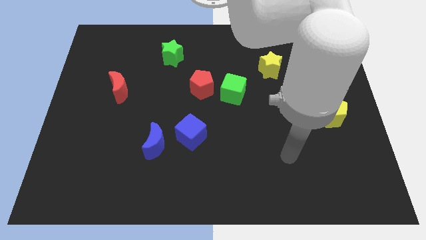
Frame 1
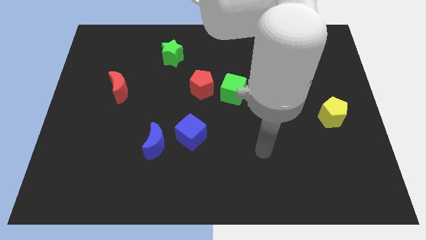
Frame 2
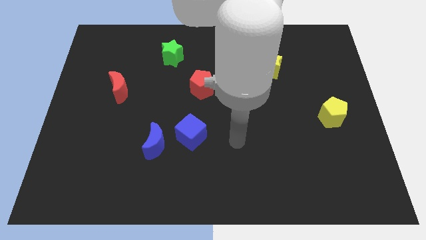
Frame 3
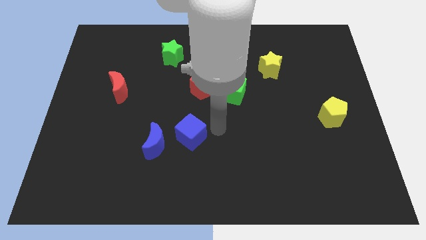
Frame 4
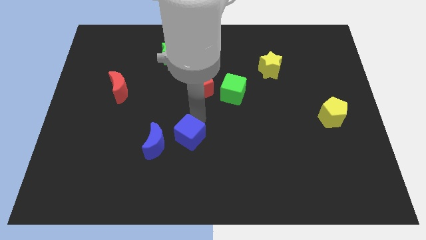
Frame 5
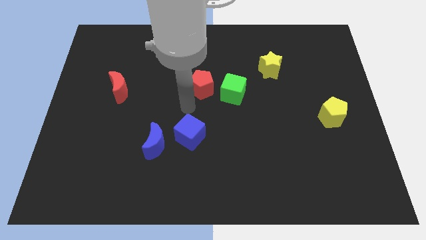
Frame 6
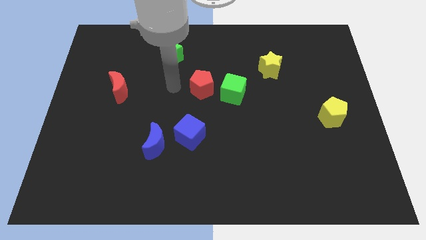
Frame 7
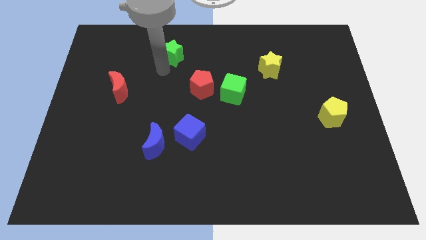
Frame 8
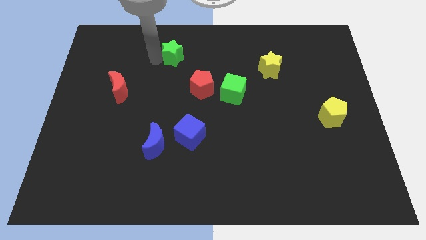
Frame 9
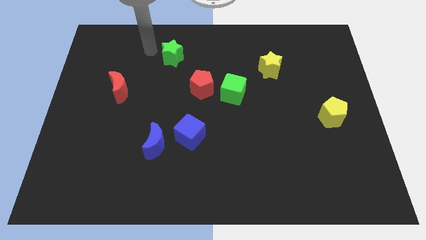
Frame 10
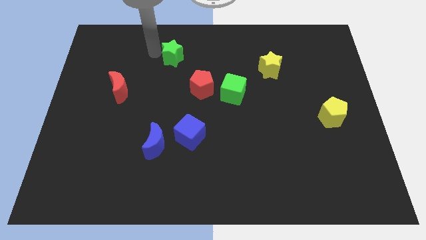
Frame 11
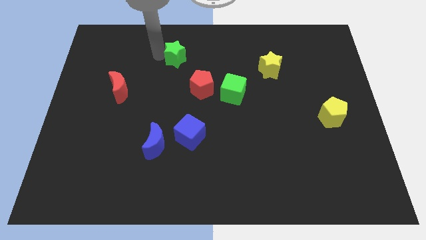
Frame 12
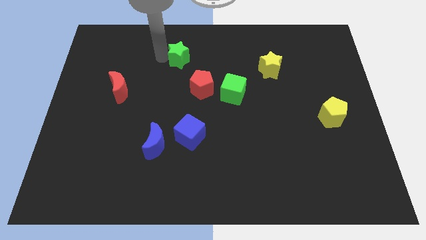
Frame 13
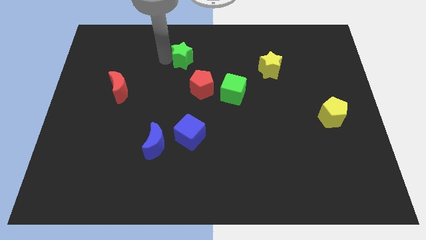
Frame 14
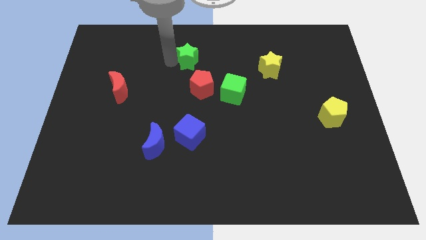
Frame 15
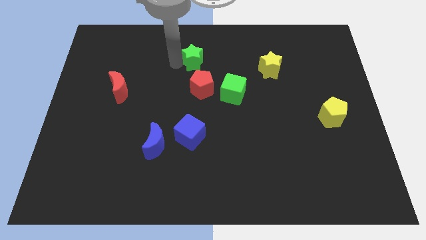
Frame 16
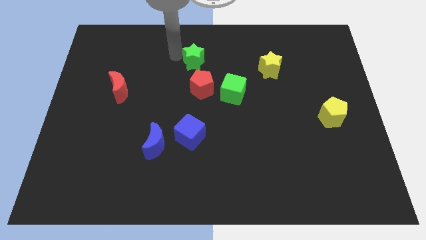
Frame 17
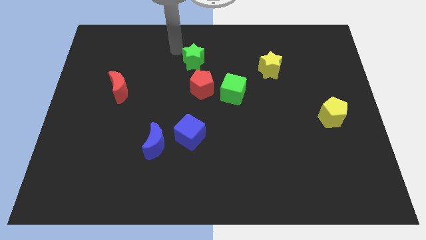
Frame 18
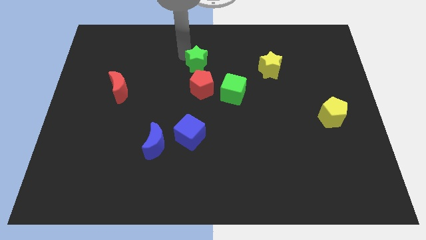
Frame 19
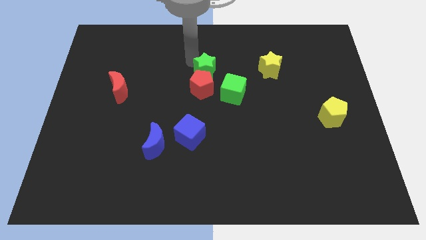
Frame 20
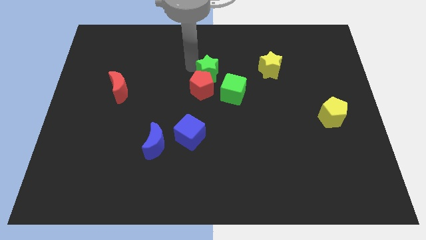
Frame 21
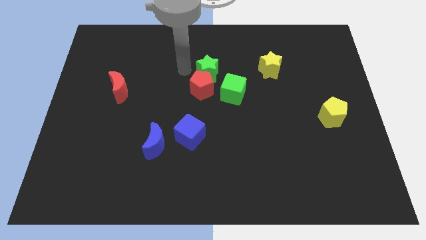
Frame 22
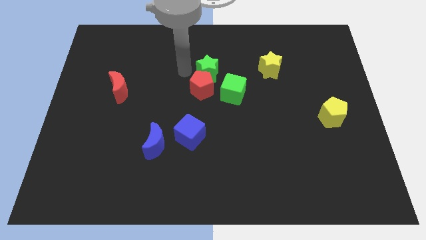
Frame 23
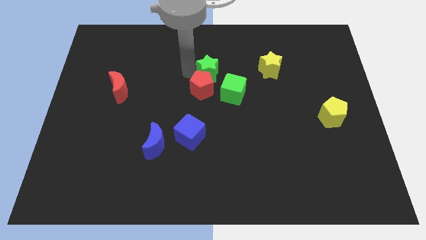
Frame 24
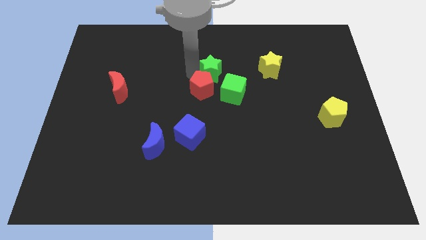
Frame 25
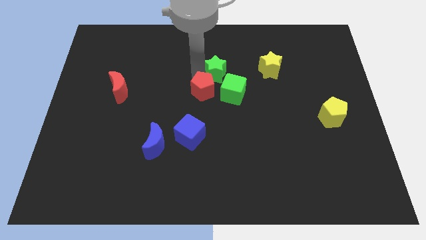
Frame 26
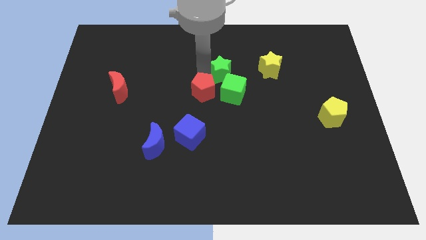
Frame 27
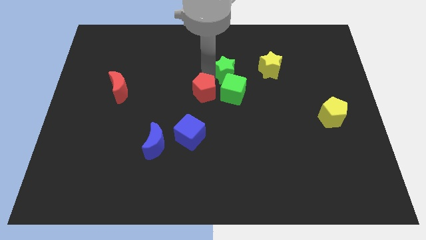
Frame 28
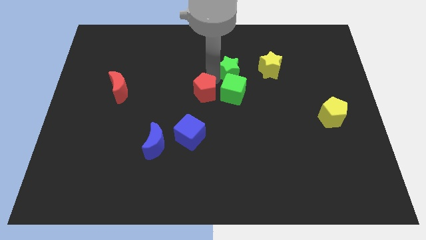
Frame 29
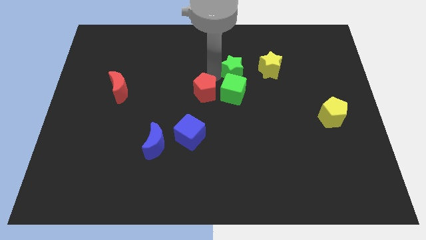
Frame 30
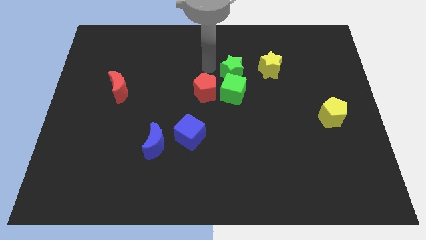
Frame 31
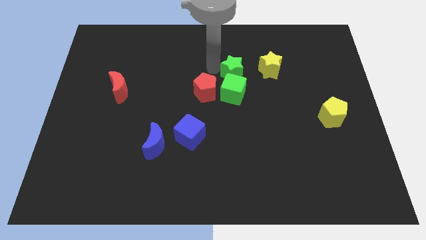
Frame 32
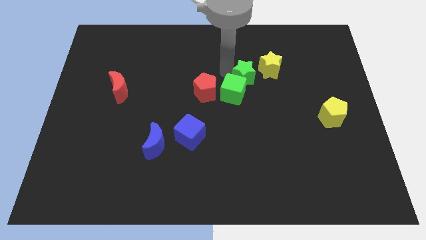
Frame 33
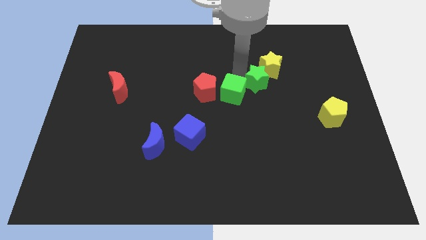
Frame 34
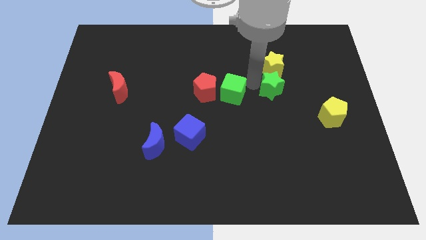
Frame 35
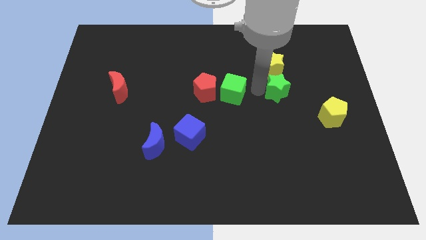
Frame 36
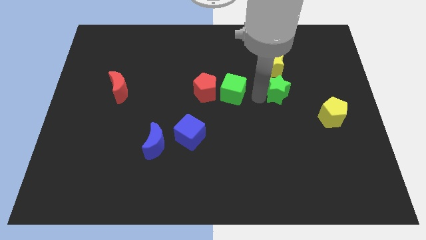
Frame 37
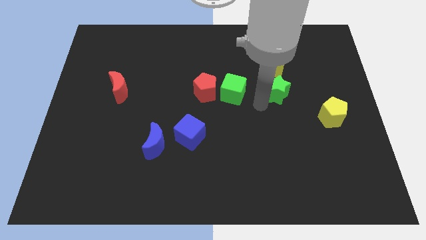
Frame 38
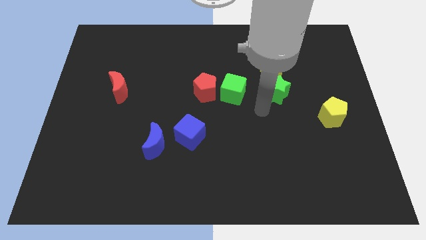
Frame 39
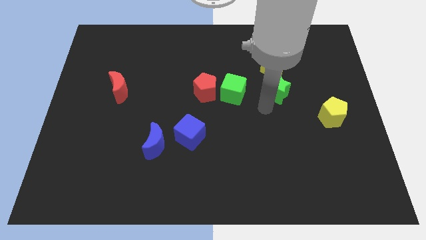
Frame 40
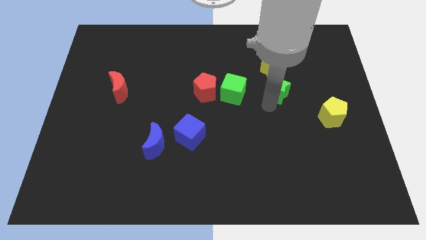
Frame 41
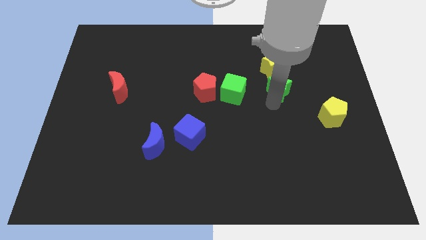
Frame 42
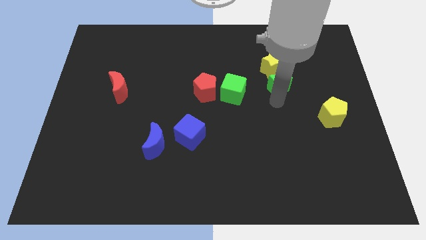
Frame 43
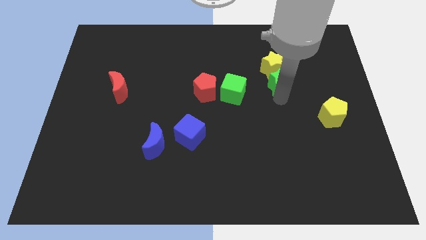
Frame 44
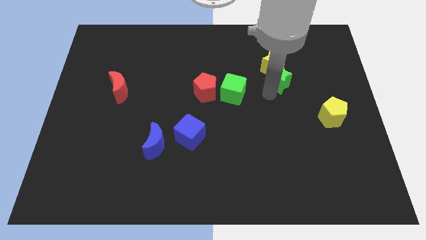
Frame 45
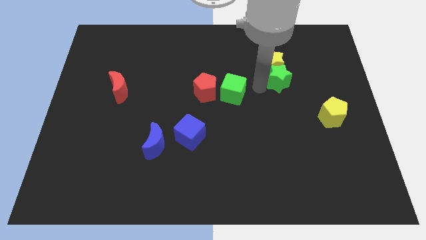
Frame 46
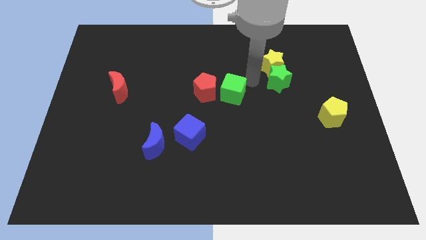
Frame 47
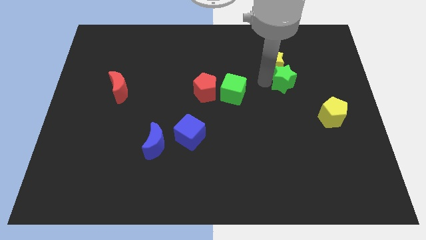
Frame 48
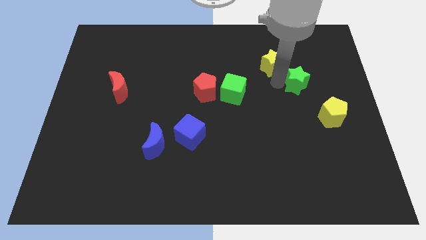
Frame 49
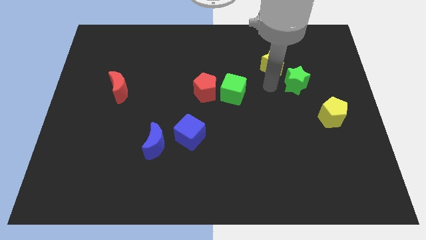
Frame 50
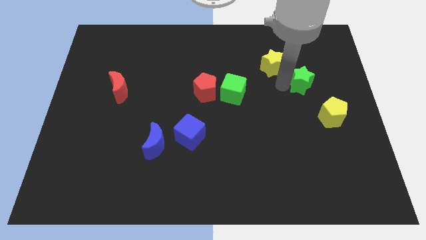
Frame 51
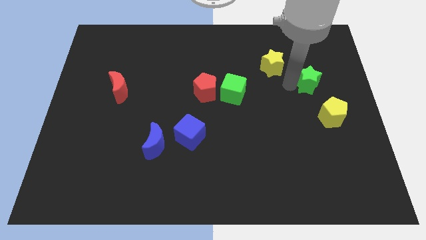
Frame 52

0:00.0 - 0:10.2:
put the green star to the top of the yellow pentagon

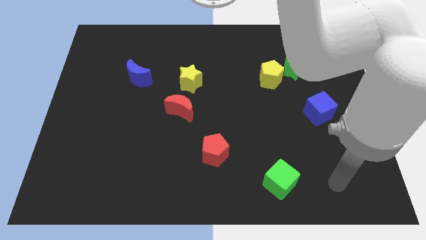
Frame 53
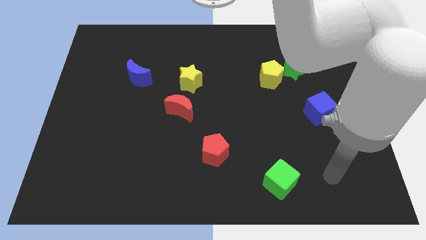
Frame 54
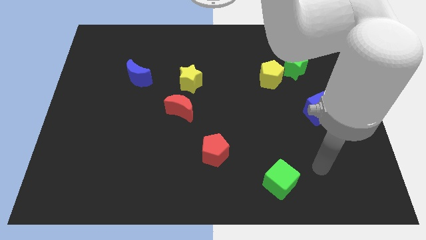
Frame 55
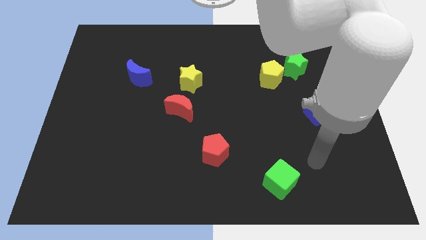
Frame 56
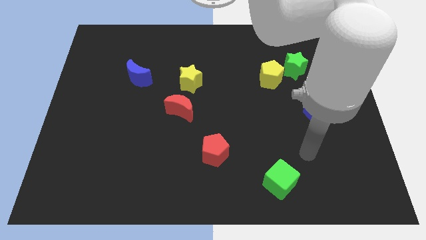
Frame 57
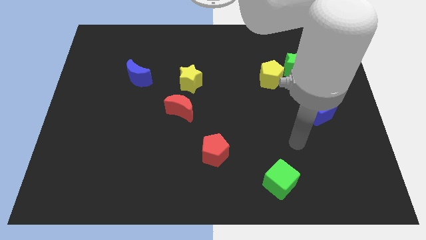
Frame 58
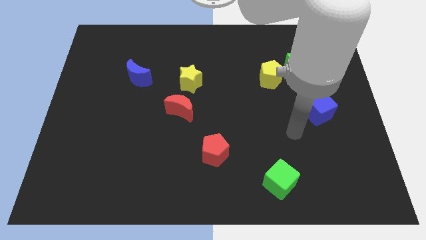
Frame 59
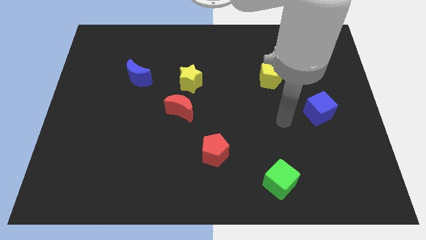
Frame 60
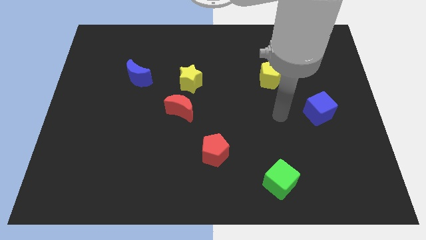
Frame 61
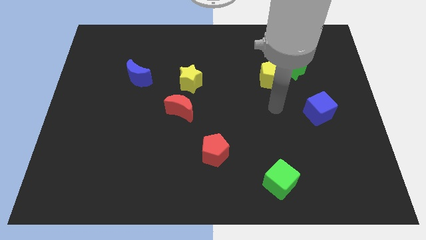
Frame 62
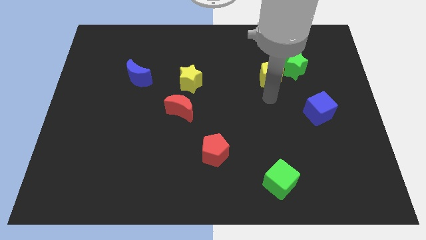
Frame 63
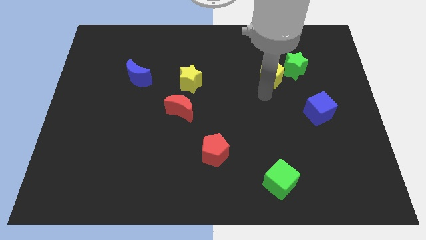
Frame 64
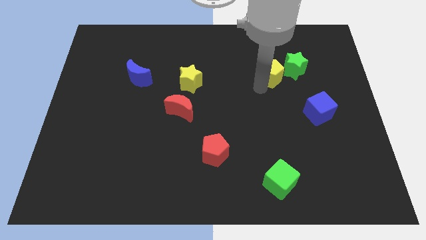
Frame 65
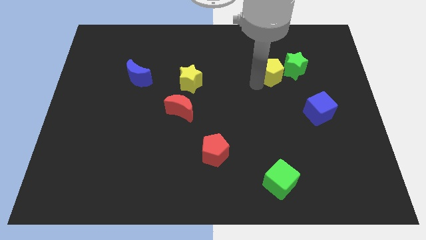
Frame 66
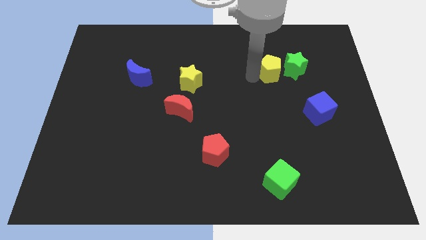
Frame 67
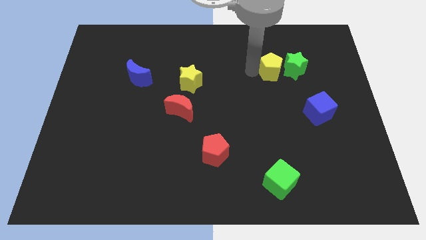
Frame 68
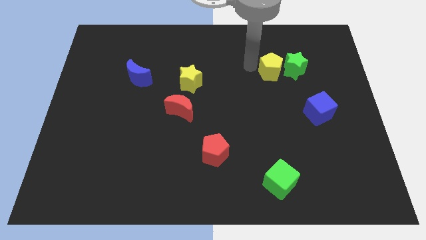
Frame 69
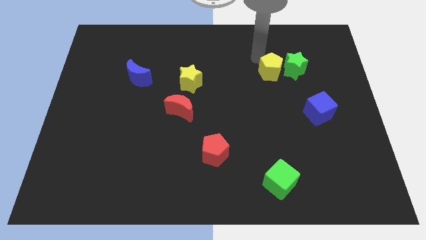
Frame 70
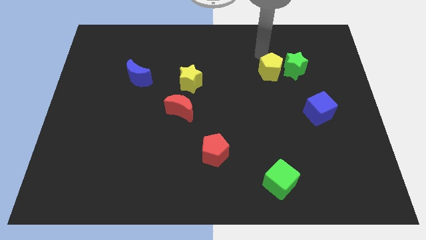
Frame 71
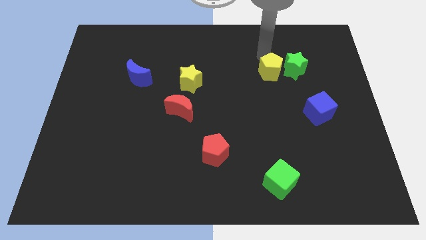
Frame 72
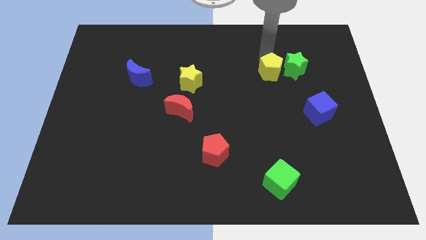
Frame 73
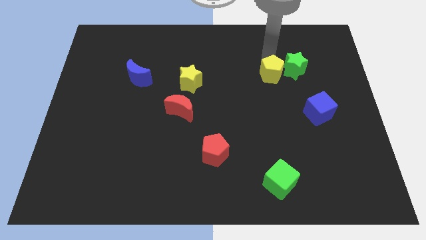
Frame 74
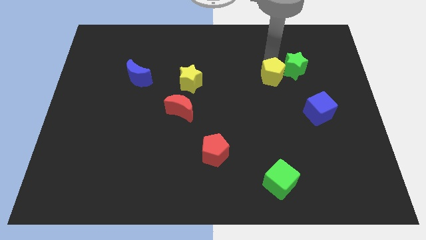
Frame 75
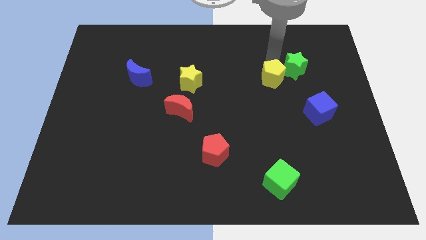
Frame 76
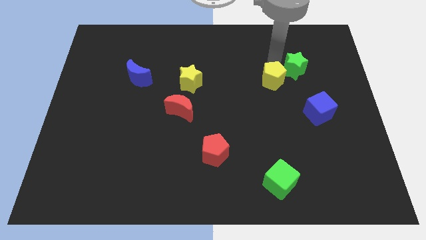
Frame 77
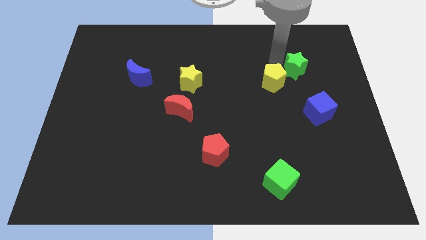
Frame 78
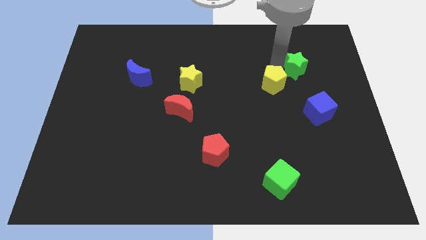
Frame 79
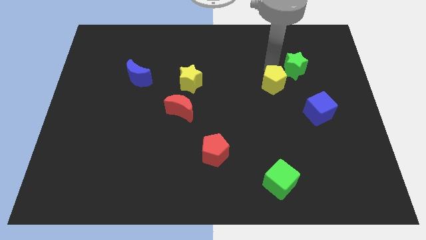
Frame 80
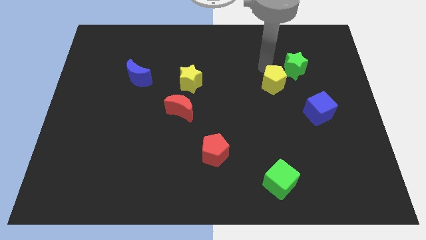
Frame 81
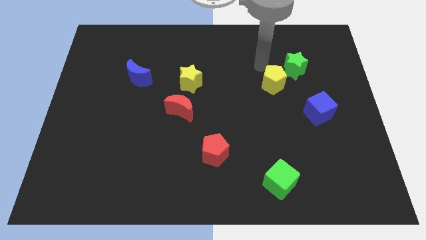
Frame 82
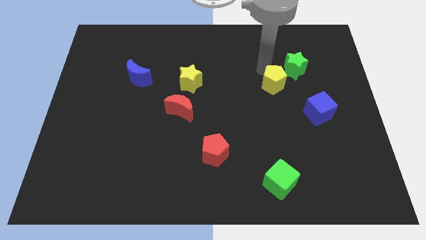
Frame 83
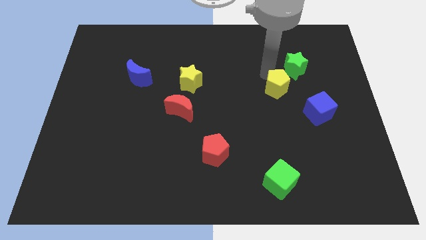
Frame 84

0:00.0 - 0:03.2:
put the yellow pentagon to the bottom of the green star

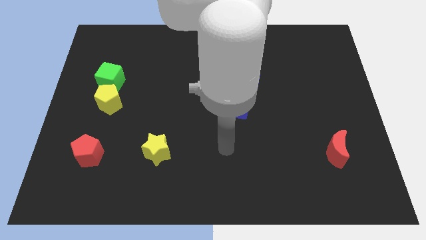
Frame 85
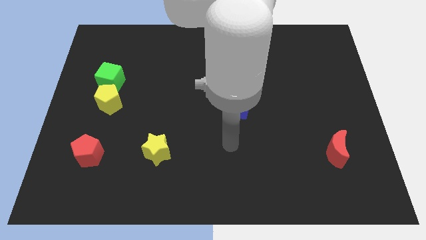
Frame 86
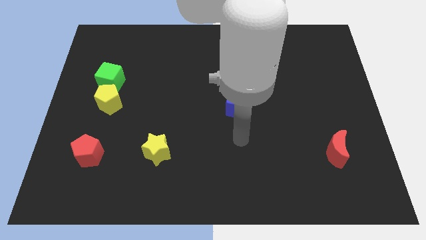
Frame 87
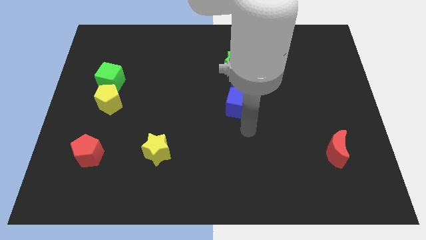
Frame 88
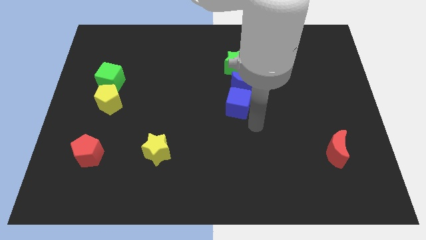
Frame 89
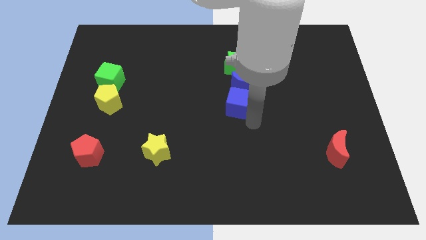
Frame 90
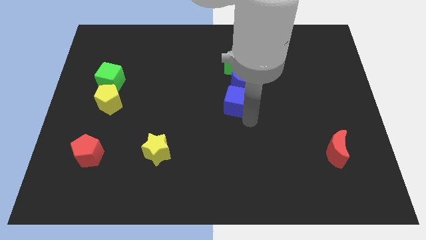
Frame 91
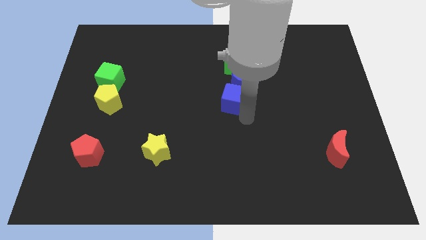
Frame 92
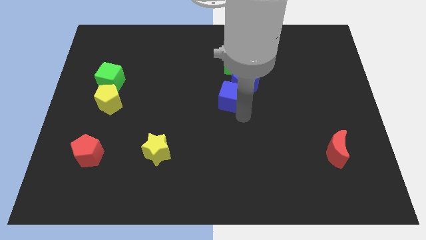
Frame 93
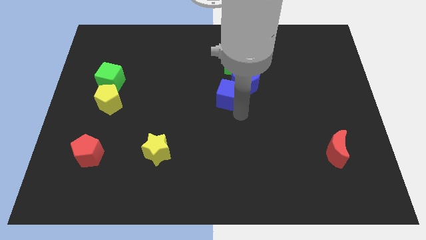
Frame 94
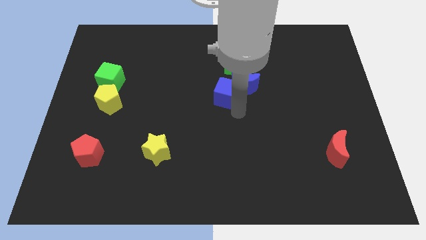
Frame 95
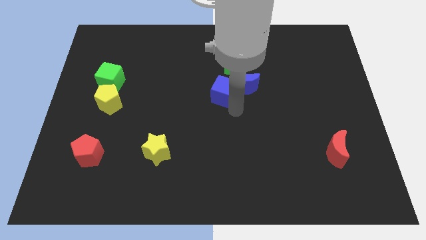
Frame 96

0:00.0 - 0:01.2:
put the blue cube to the bottom left of the green star
